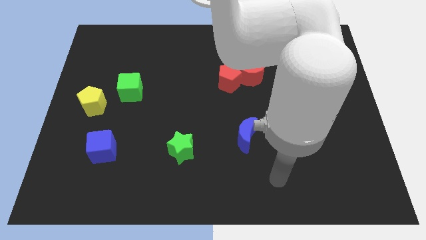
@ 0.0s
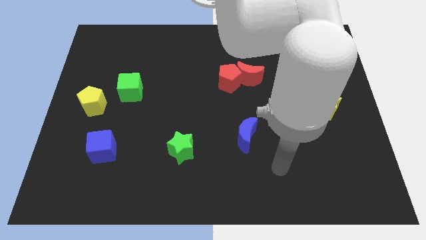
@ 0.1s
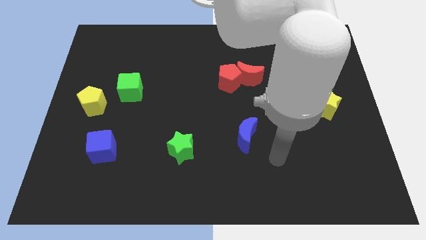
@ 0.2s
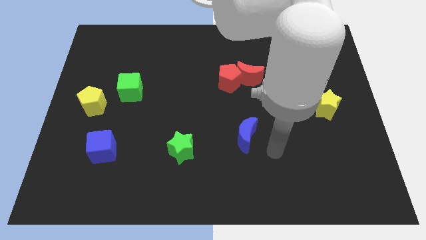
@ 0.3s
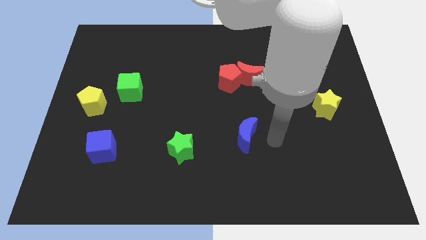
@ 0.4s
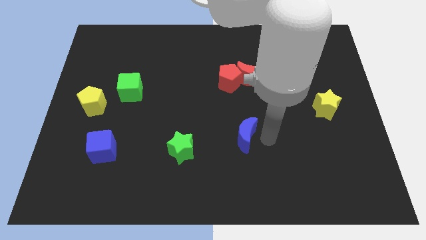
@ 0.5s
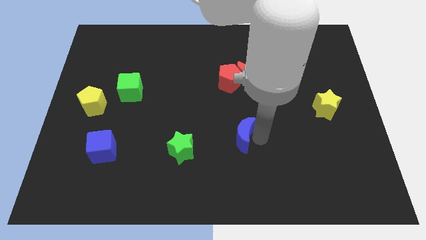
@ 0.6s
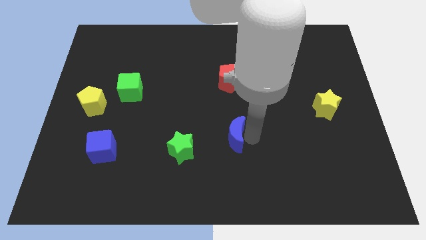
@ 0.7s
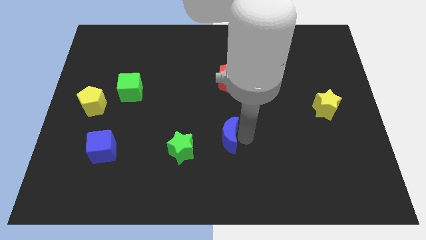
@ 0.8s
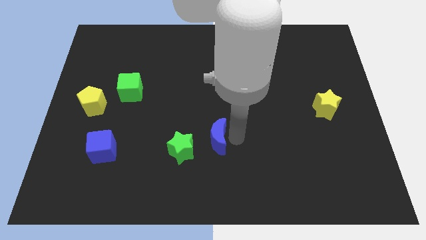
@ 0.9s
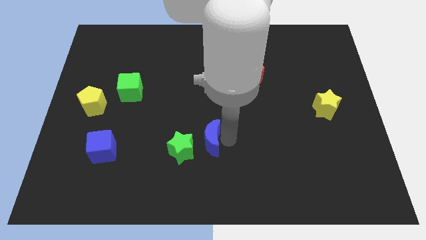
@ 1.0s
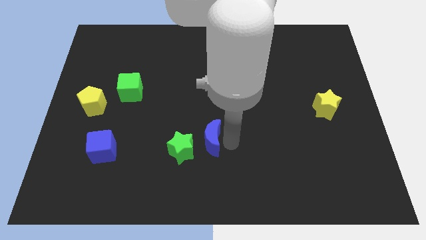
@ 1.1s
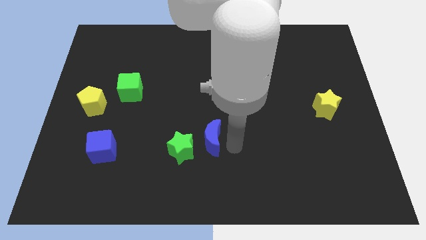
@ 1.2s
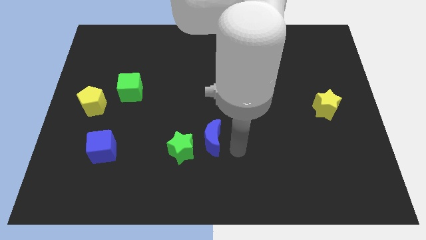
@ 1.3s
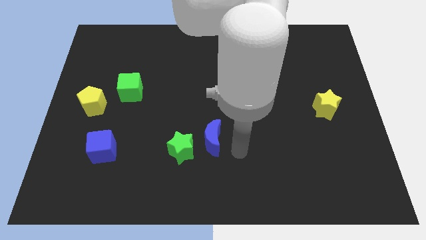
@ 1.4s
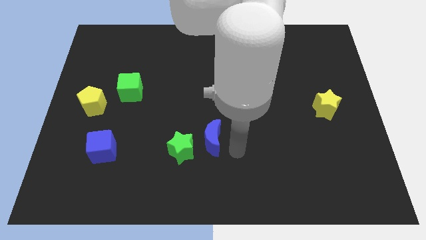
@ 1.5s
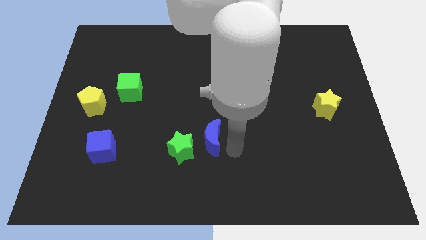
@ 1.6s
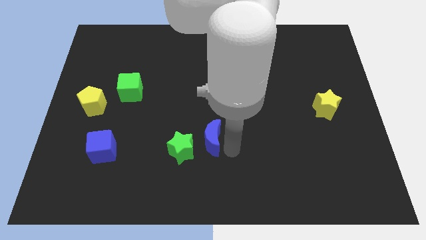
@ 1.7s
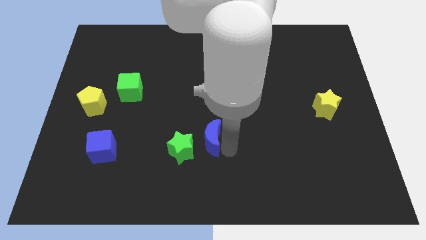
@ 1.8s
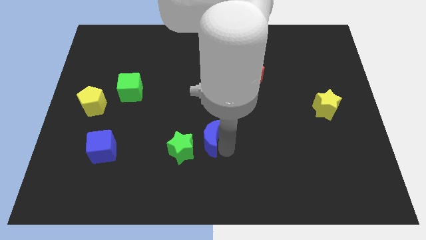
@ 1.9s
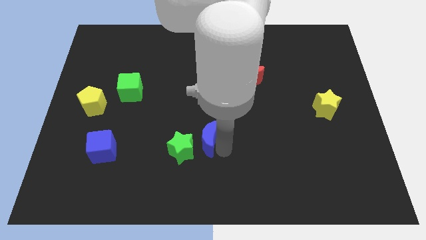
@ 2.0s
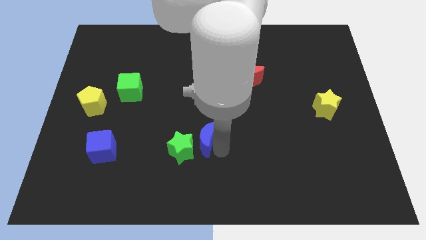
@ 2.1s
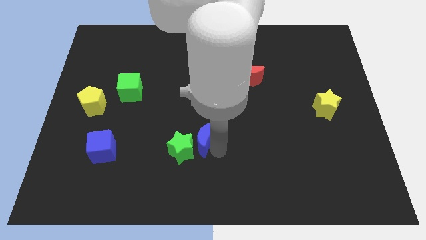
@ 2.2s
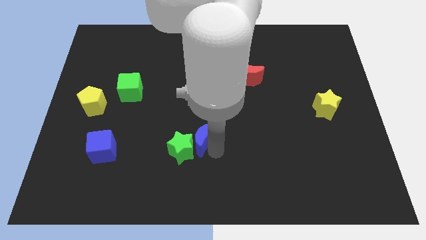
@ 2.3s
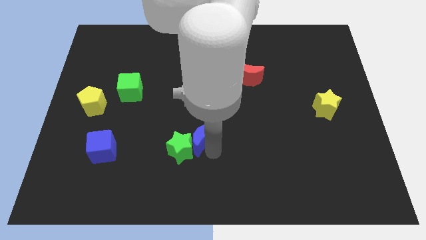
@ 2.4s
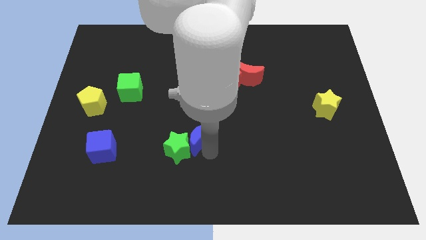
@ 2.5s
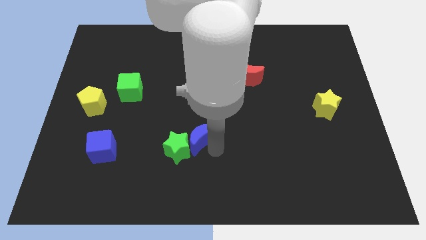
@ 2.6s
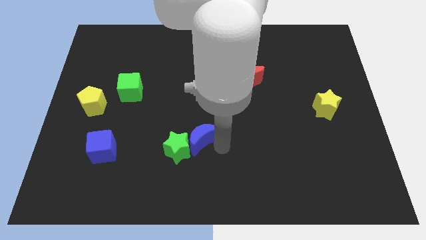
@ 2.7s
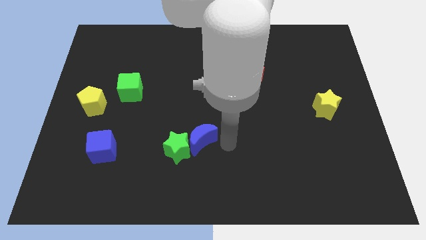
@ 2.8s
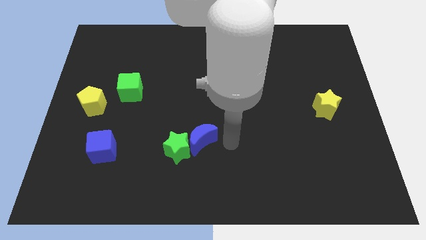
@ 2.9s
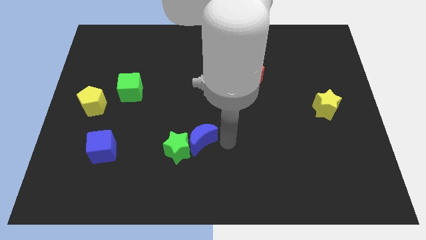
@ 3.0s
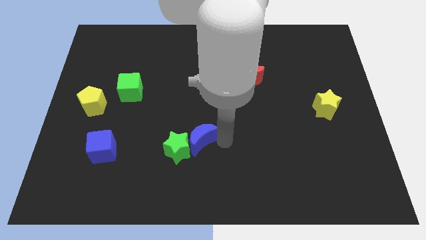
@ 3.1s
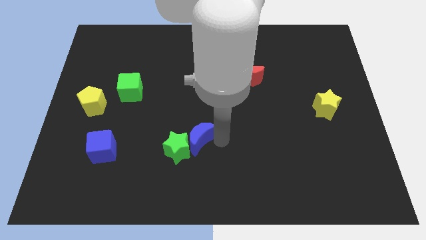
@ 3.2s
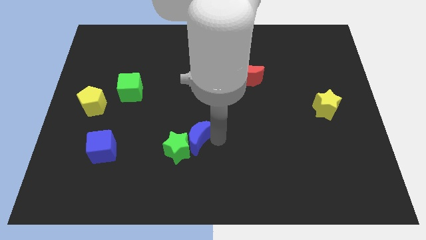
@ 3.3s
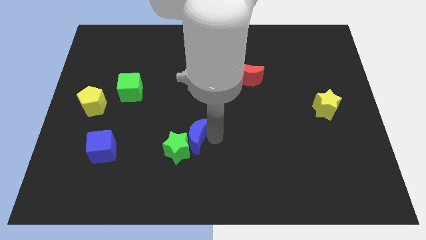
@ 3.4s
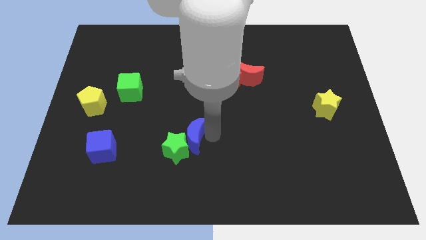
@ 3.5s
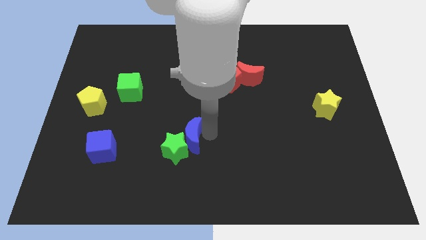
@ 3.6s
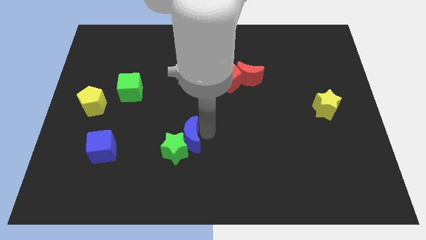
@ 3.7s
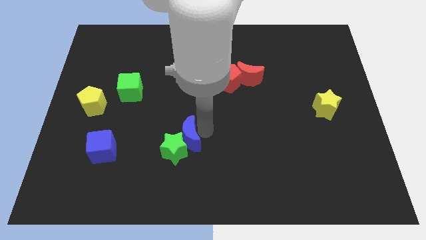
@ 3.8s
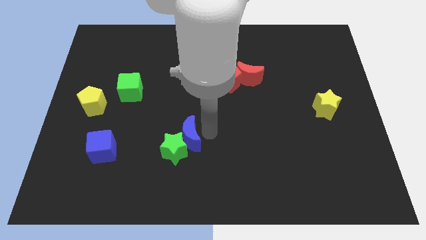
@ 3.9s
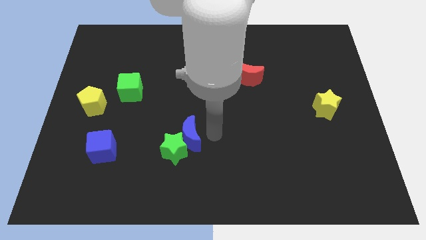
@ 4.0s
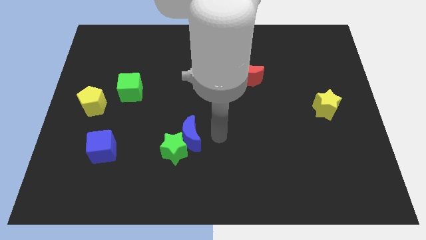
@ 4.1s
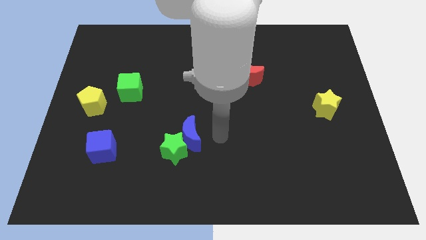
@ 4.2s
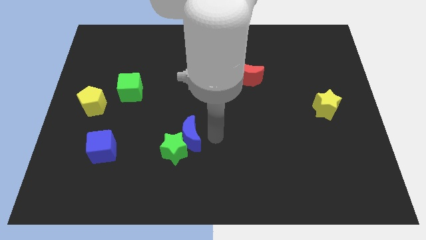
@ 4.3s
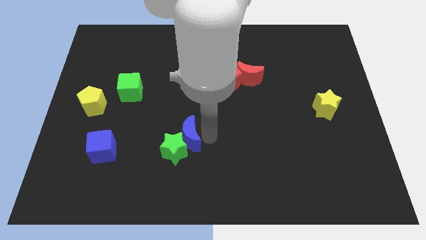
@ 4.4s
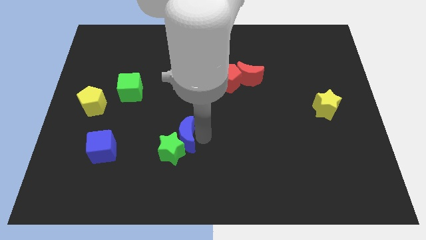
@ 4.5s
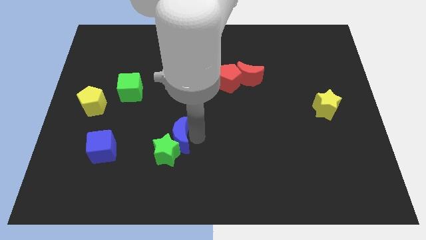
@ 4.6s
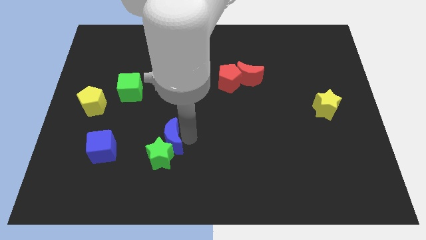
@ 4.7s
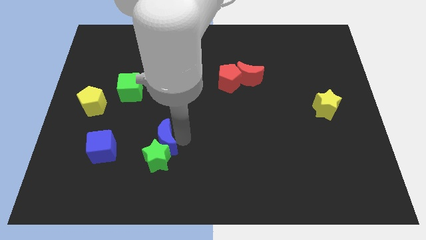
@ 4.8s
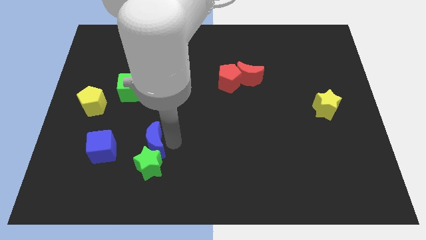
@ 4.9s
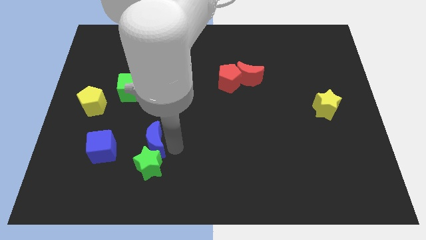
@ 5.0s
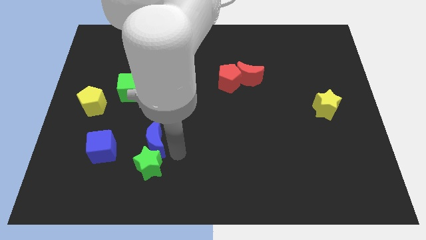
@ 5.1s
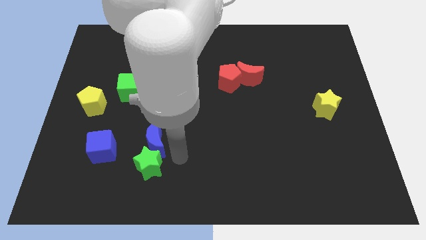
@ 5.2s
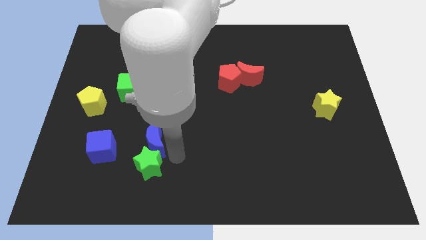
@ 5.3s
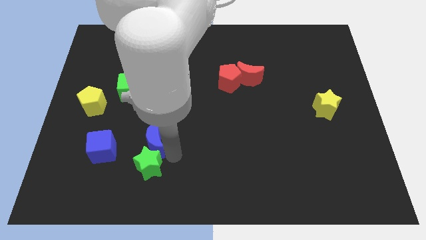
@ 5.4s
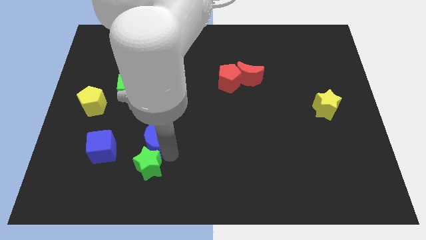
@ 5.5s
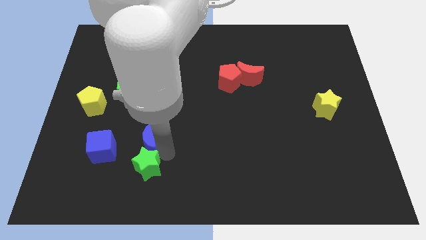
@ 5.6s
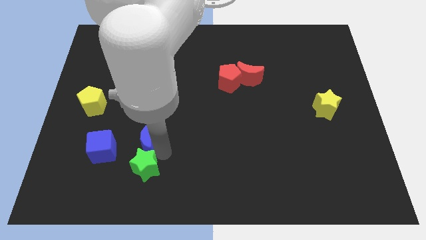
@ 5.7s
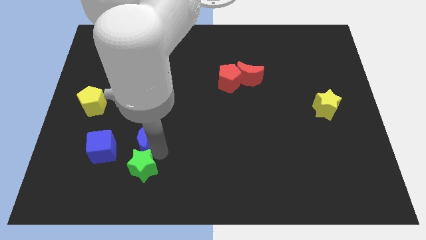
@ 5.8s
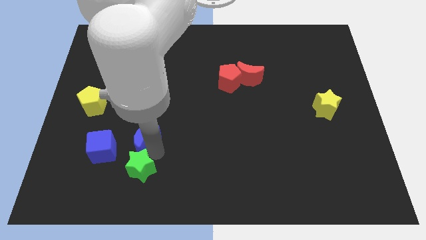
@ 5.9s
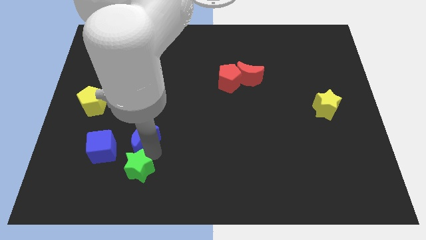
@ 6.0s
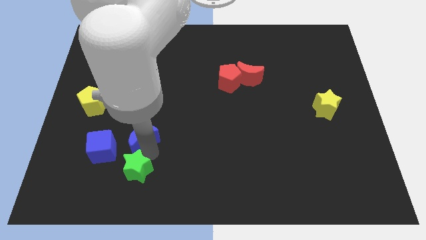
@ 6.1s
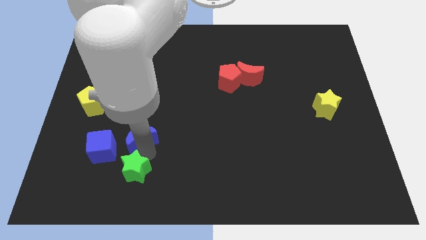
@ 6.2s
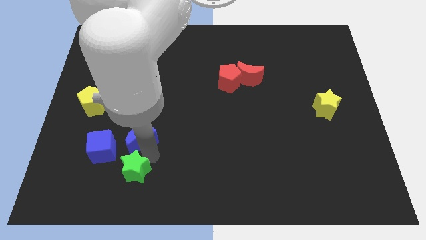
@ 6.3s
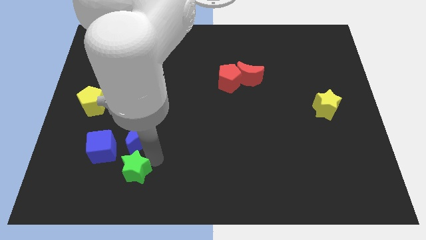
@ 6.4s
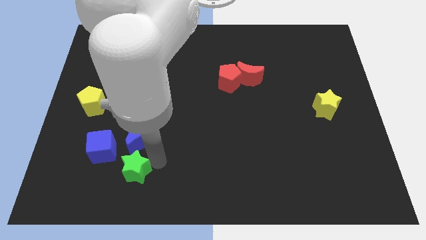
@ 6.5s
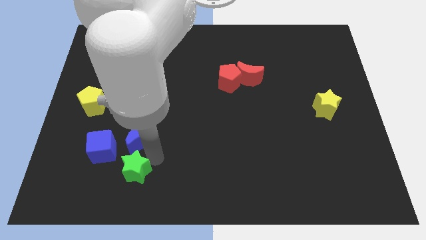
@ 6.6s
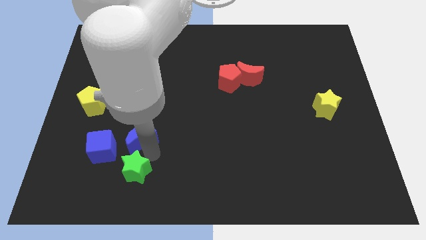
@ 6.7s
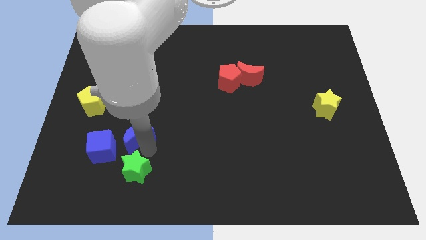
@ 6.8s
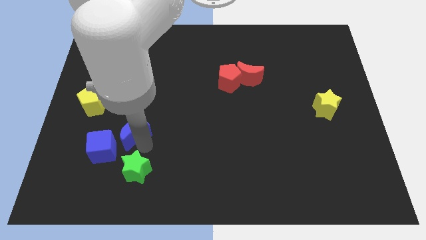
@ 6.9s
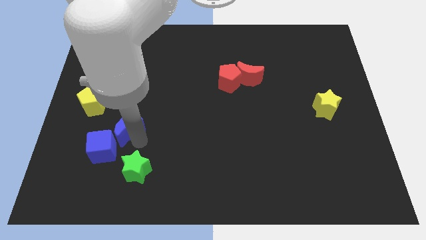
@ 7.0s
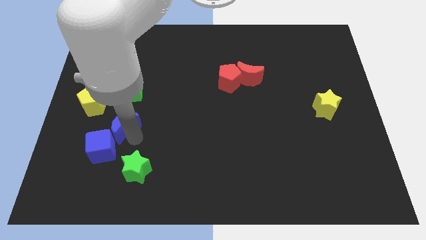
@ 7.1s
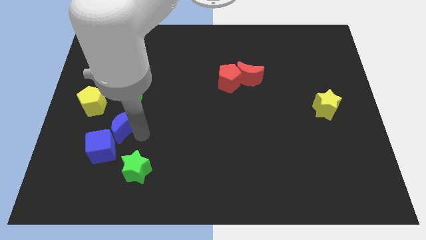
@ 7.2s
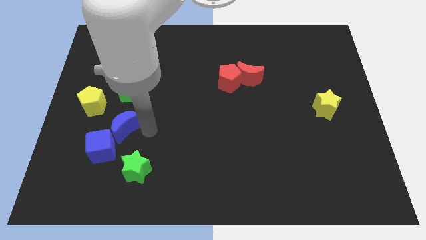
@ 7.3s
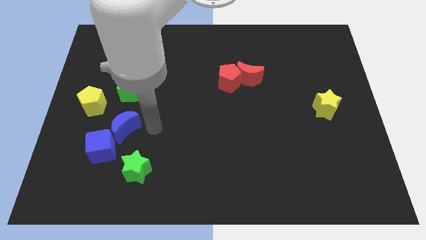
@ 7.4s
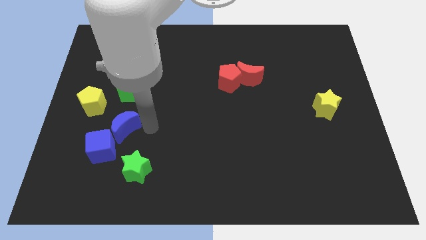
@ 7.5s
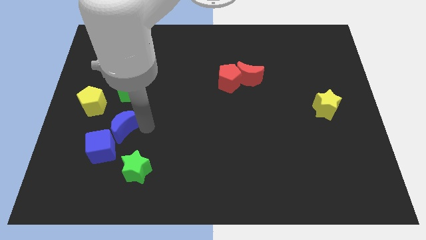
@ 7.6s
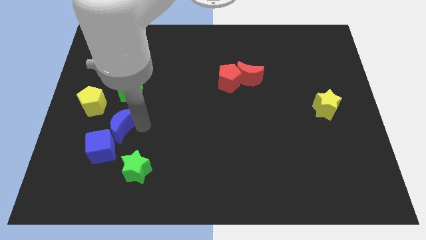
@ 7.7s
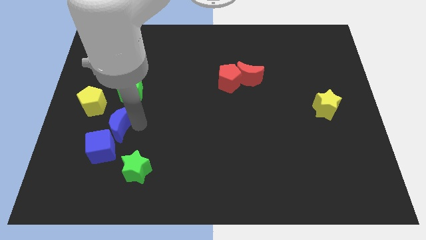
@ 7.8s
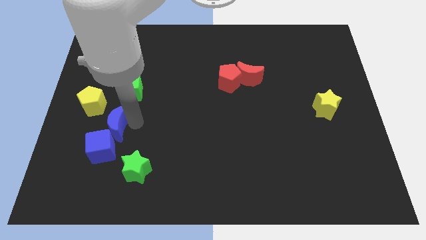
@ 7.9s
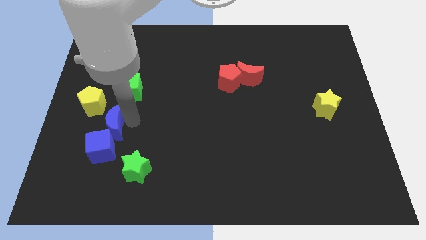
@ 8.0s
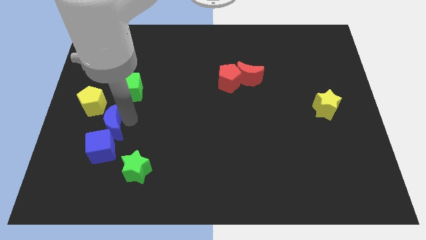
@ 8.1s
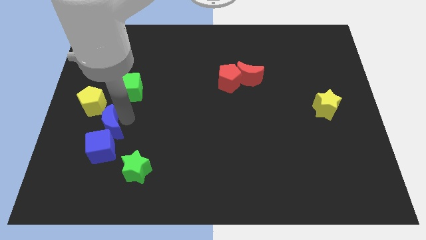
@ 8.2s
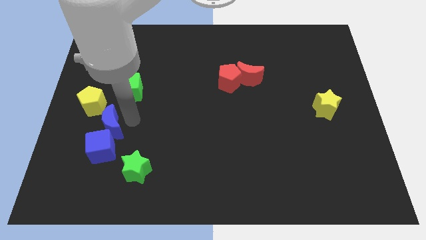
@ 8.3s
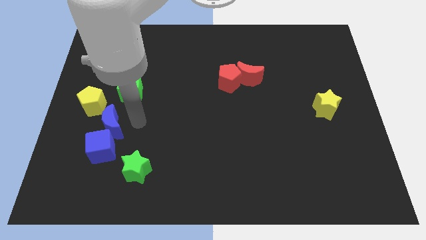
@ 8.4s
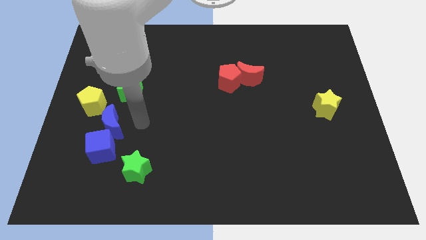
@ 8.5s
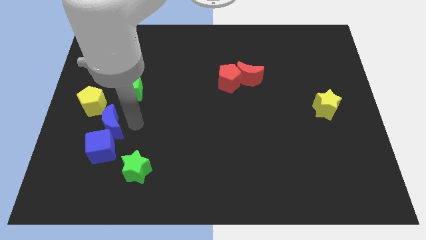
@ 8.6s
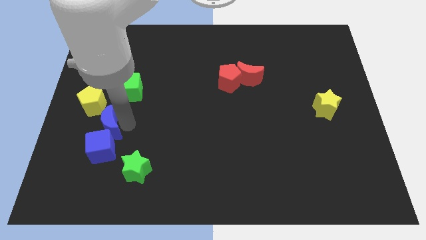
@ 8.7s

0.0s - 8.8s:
push the blue moon diagonally up and to the left of the blue cube
